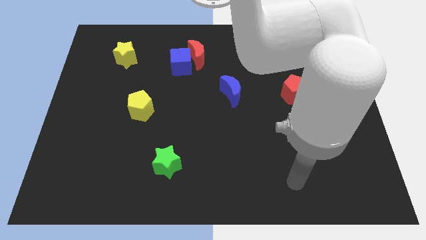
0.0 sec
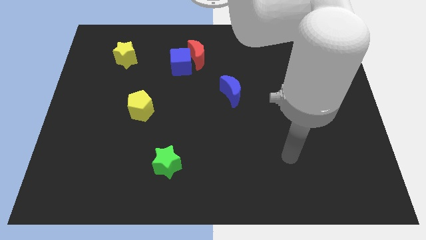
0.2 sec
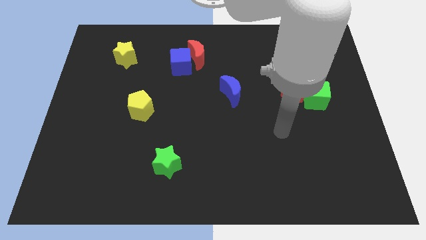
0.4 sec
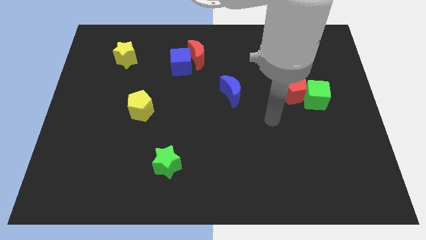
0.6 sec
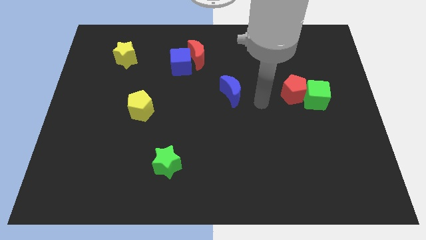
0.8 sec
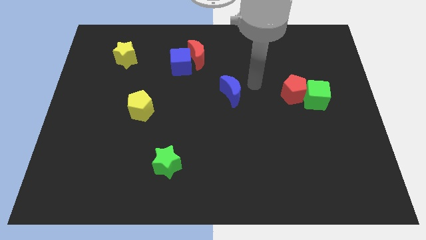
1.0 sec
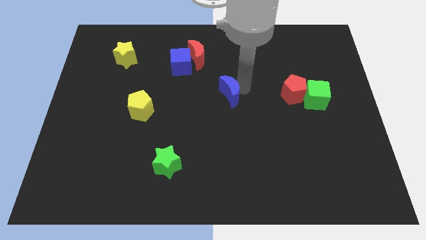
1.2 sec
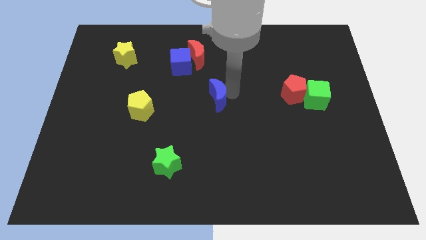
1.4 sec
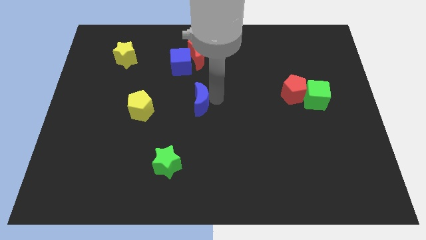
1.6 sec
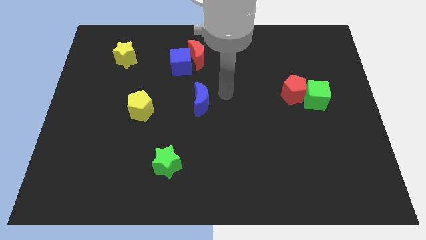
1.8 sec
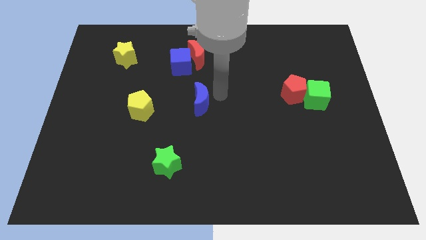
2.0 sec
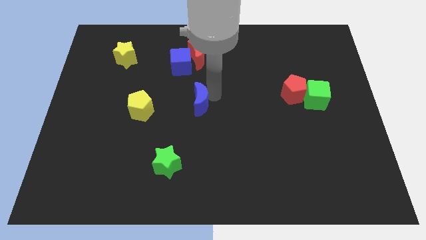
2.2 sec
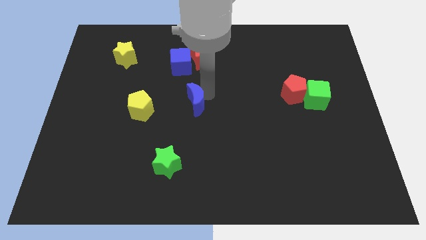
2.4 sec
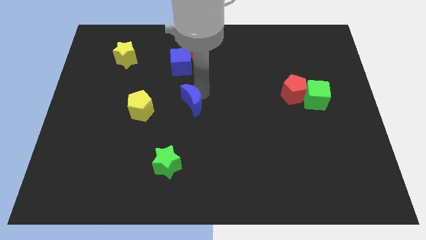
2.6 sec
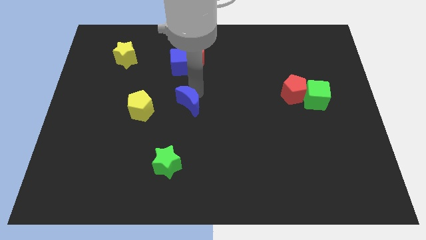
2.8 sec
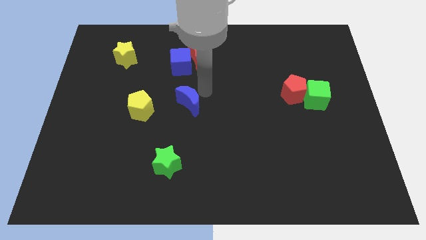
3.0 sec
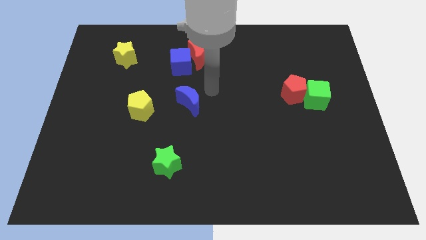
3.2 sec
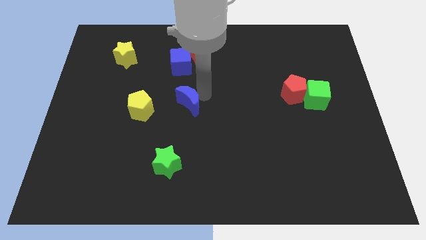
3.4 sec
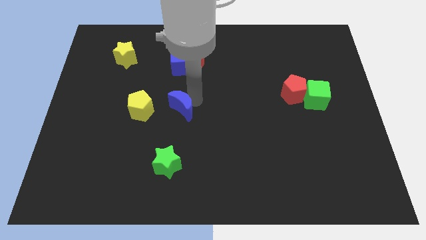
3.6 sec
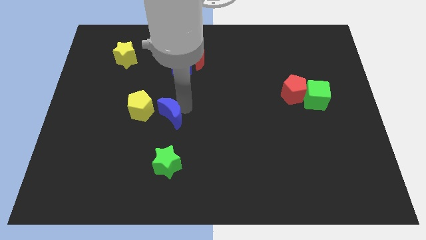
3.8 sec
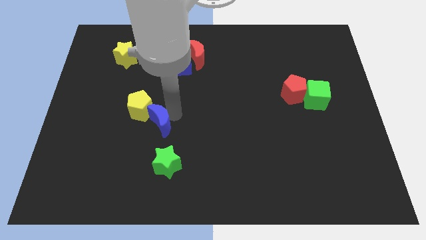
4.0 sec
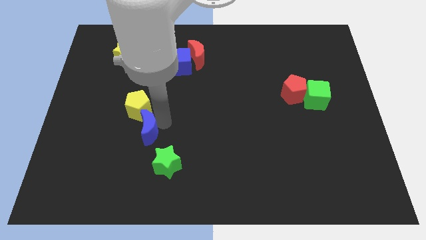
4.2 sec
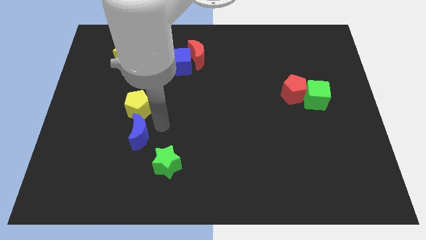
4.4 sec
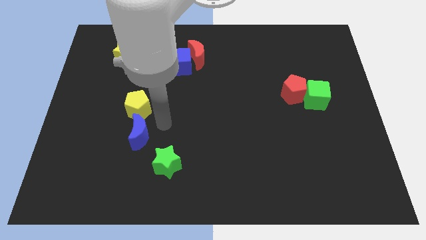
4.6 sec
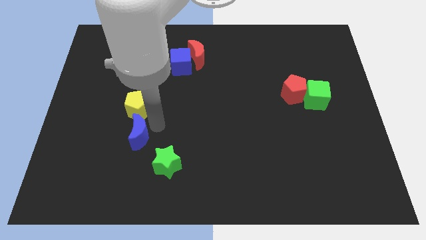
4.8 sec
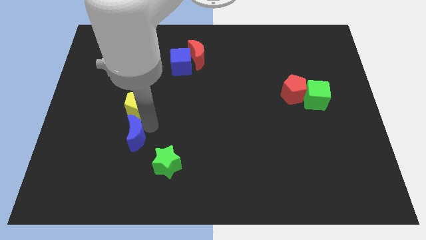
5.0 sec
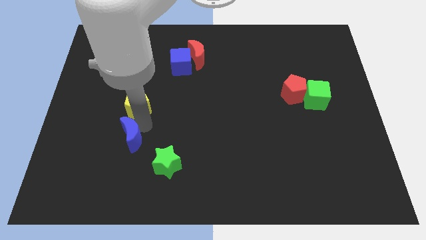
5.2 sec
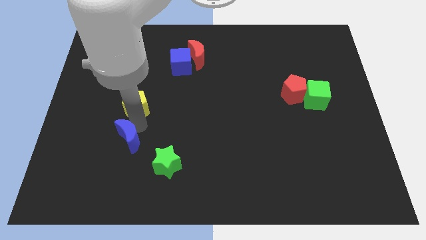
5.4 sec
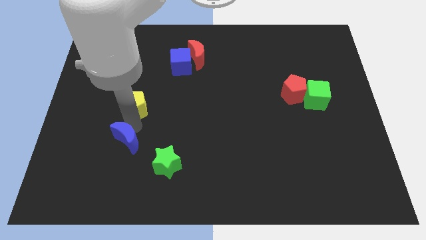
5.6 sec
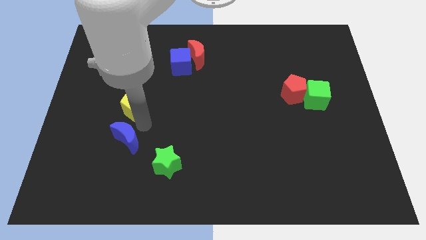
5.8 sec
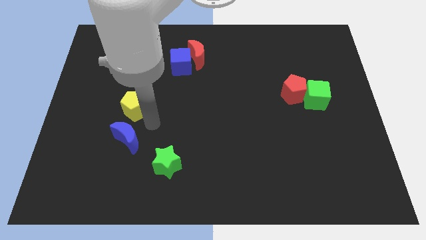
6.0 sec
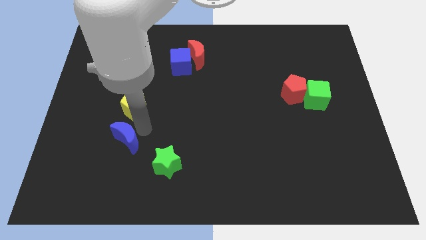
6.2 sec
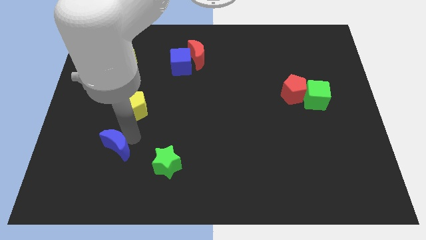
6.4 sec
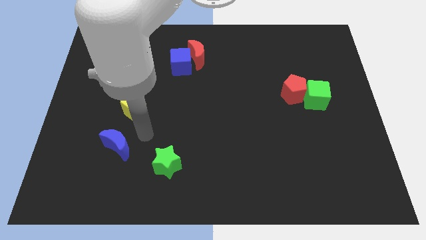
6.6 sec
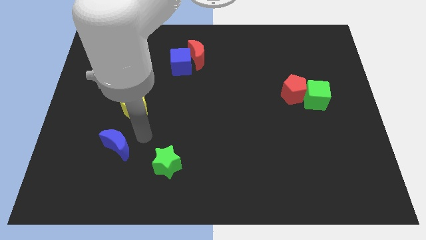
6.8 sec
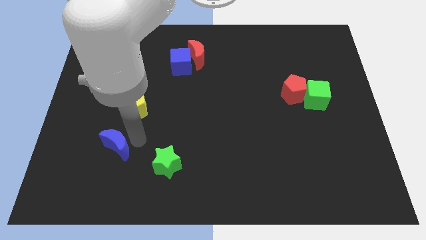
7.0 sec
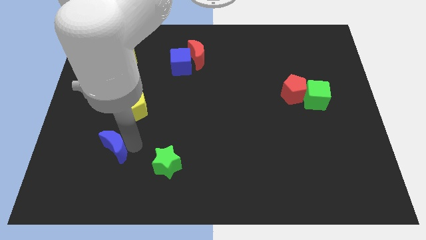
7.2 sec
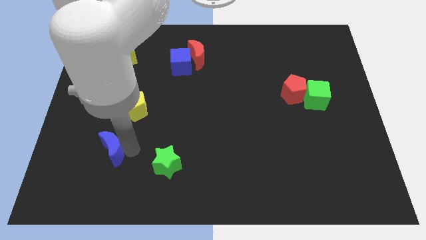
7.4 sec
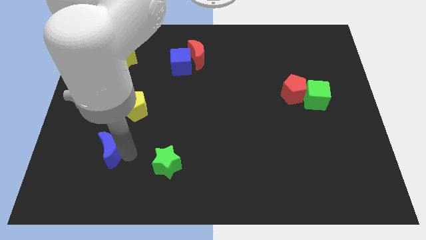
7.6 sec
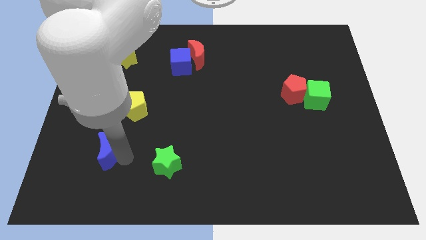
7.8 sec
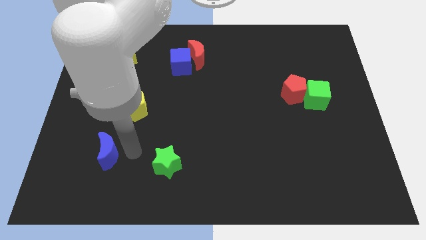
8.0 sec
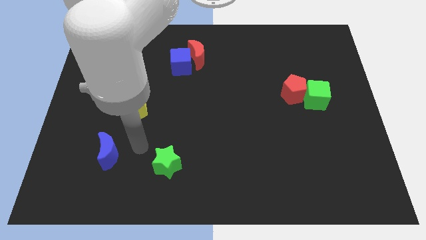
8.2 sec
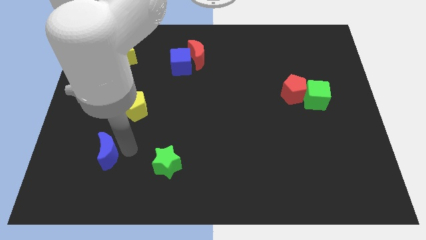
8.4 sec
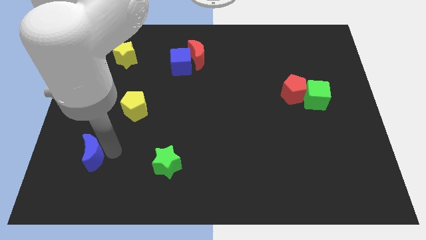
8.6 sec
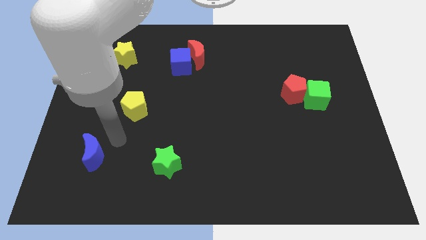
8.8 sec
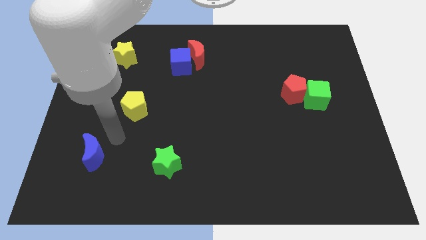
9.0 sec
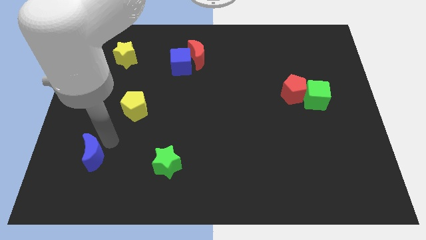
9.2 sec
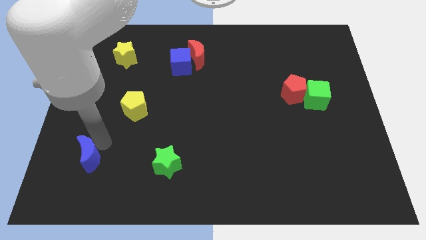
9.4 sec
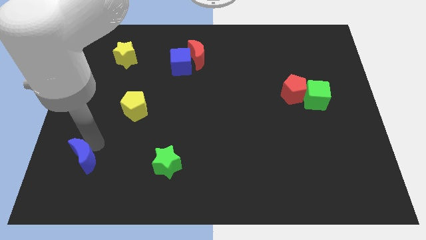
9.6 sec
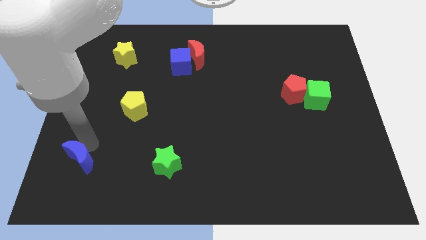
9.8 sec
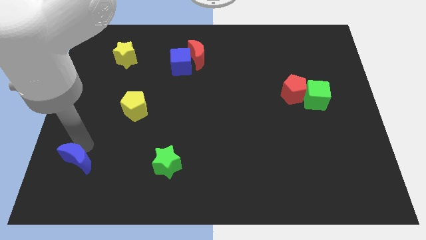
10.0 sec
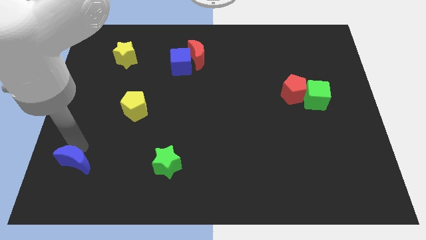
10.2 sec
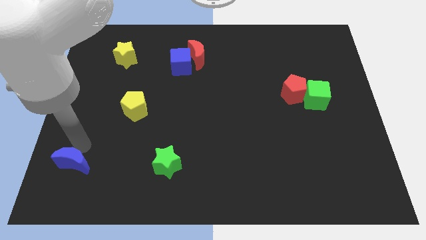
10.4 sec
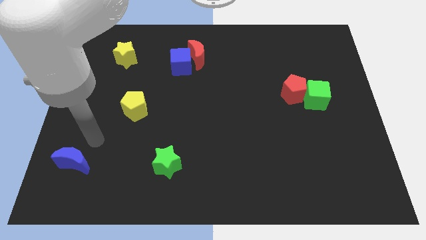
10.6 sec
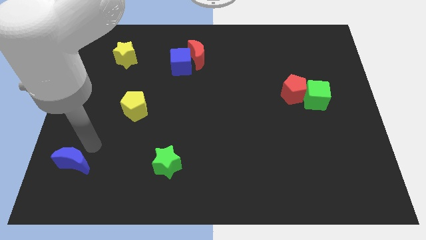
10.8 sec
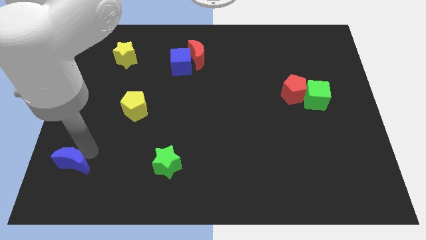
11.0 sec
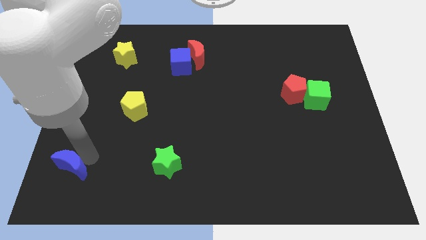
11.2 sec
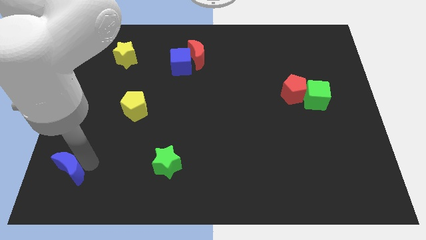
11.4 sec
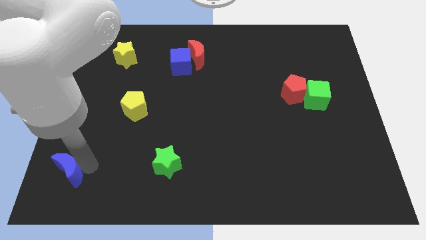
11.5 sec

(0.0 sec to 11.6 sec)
put the blue moon to the lower left corner

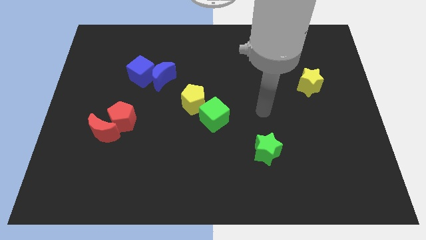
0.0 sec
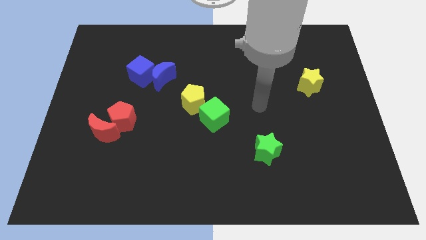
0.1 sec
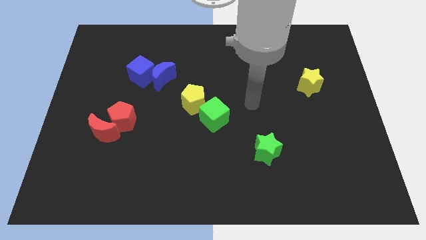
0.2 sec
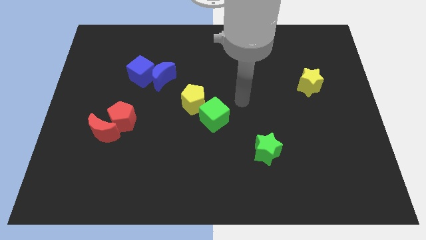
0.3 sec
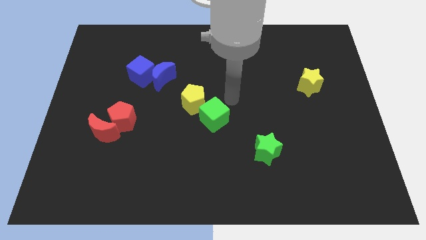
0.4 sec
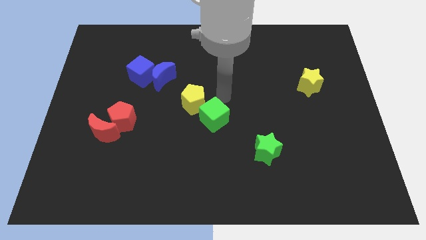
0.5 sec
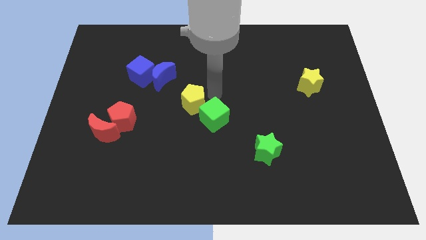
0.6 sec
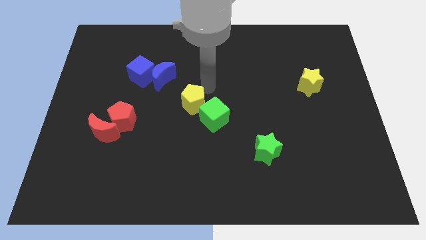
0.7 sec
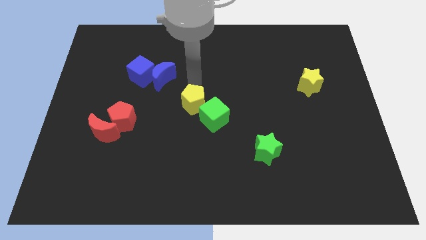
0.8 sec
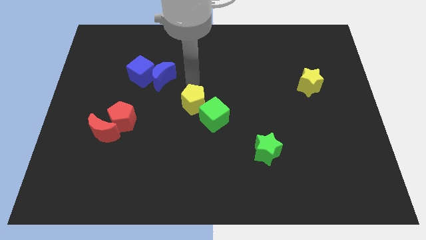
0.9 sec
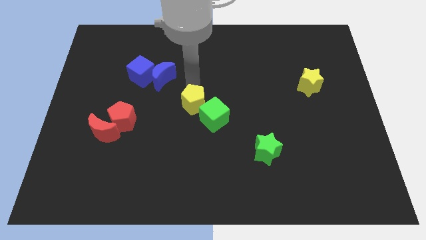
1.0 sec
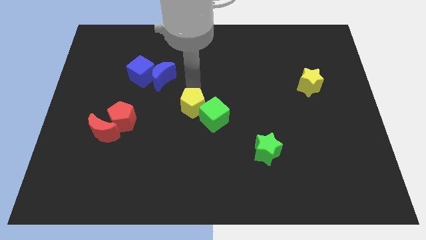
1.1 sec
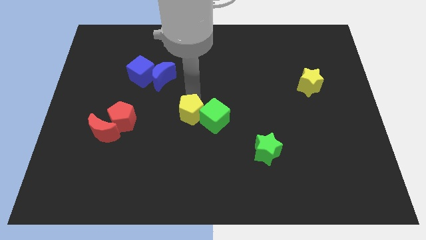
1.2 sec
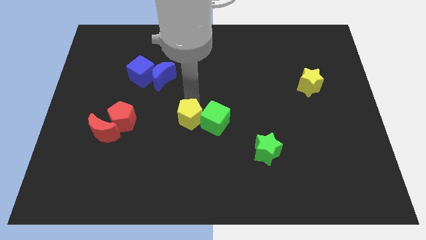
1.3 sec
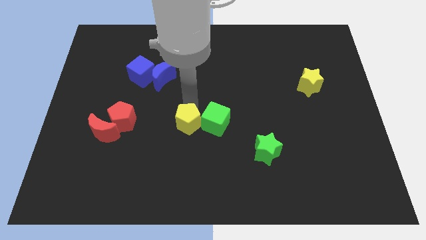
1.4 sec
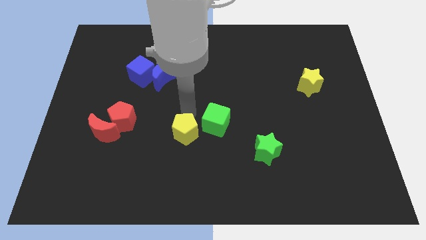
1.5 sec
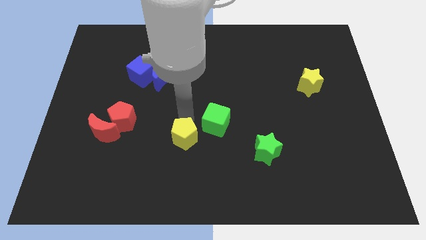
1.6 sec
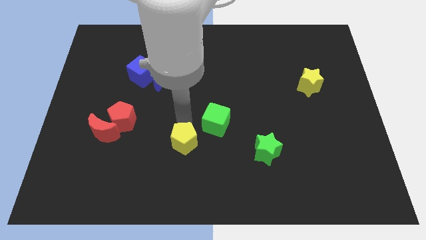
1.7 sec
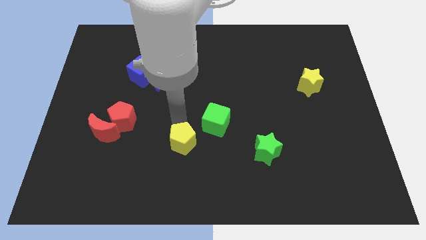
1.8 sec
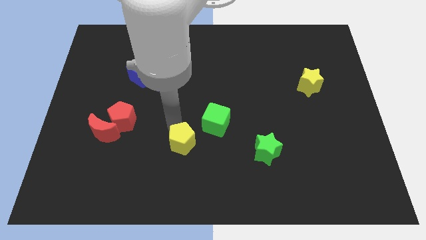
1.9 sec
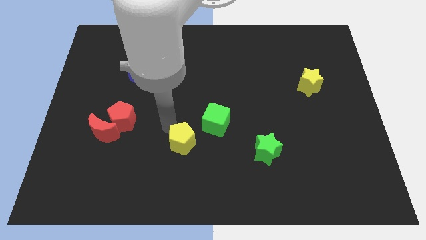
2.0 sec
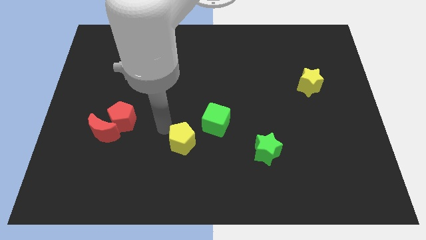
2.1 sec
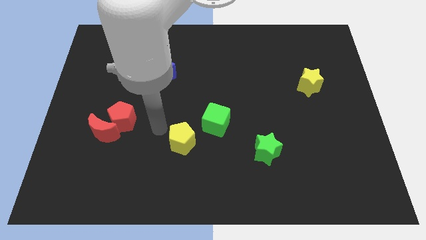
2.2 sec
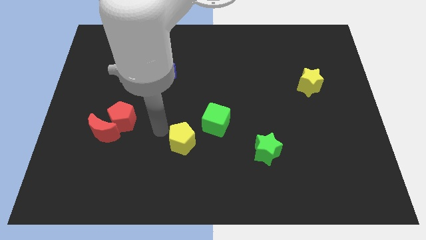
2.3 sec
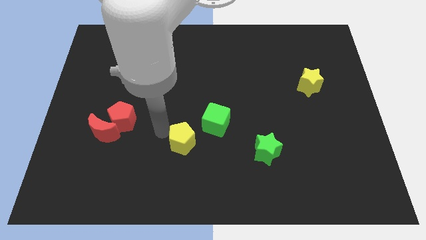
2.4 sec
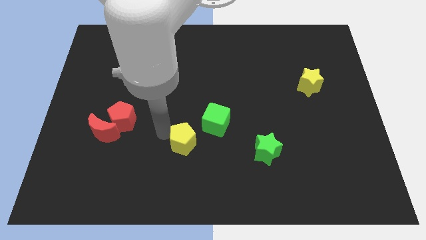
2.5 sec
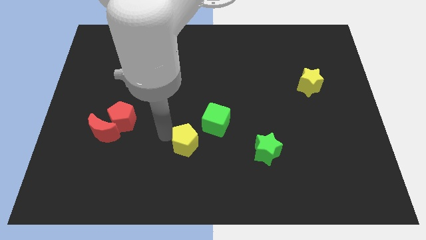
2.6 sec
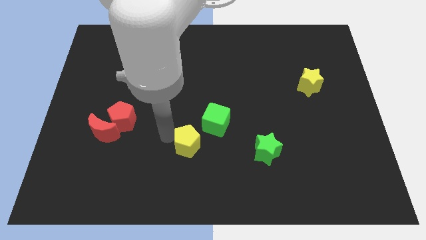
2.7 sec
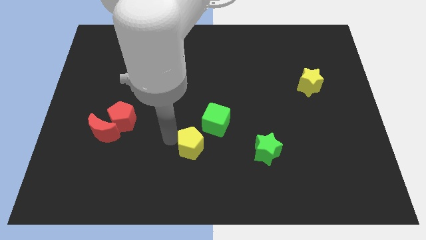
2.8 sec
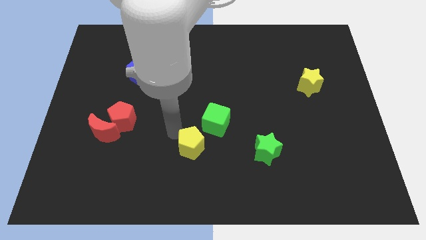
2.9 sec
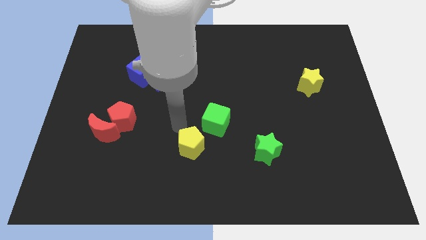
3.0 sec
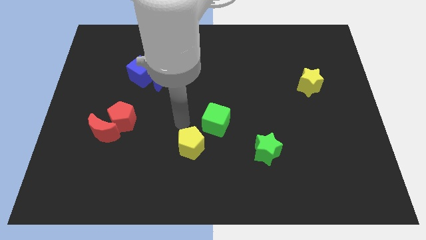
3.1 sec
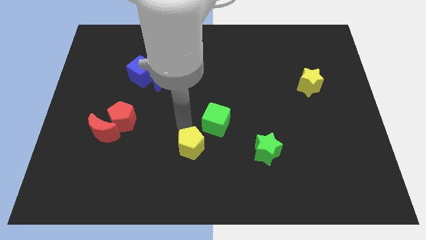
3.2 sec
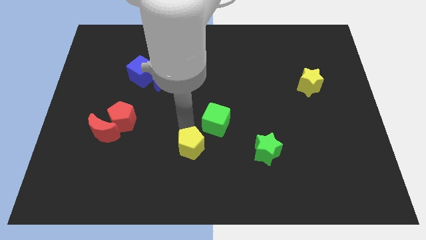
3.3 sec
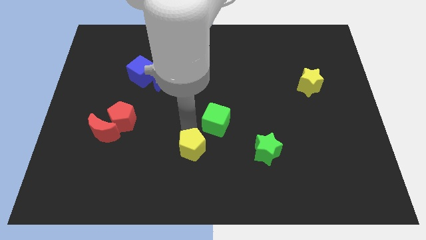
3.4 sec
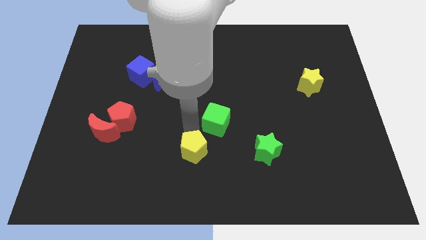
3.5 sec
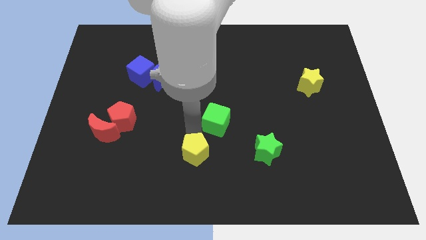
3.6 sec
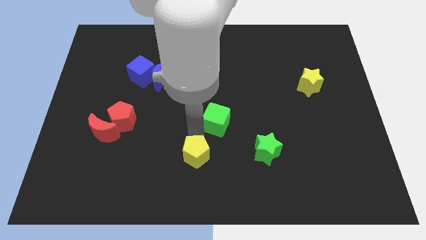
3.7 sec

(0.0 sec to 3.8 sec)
move the yellow pentagon to the bottom
